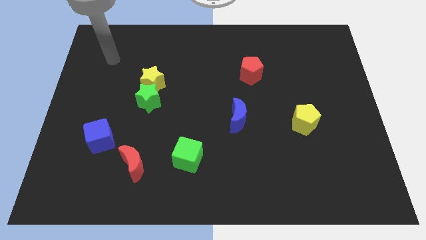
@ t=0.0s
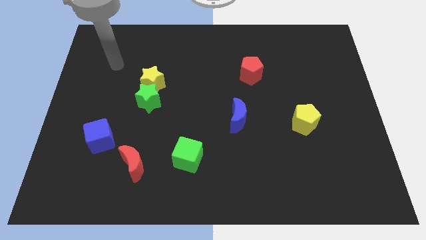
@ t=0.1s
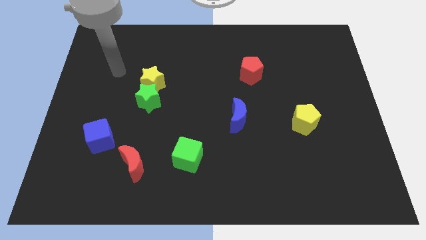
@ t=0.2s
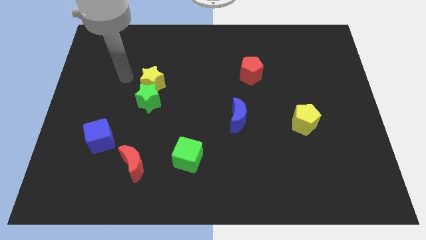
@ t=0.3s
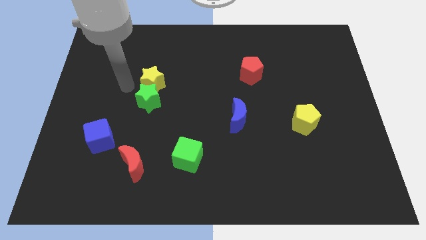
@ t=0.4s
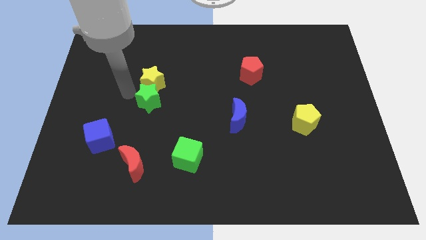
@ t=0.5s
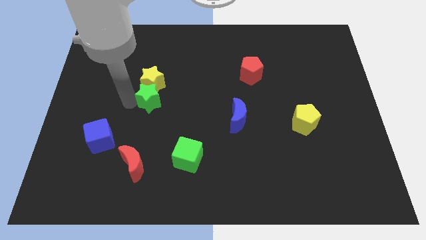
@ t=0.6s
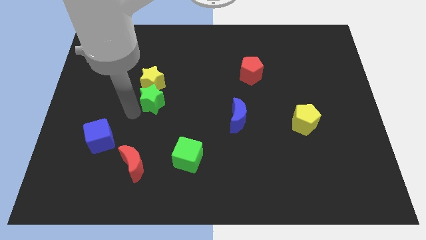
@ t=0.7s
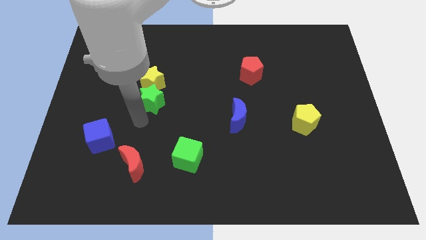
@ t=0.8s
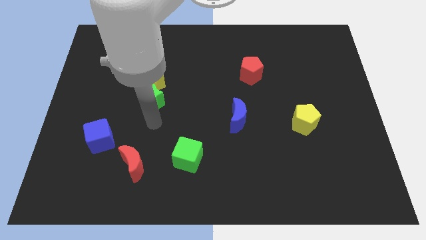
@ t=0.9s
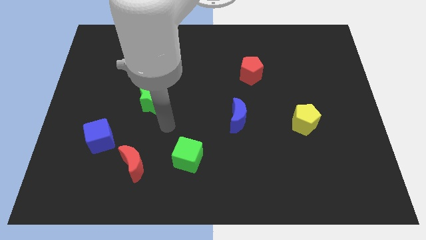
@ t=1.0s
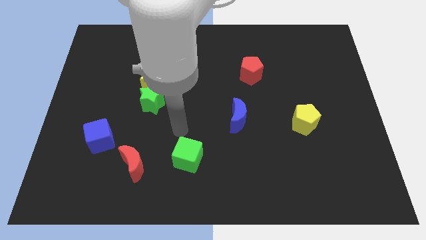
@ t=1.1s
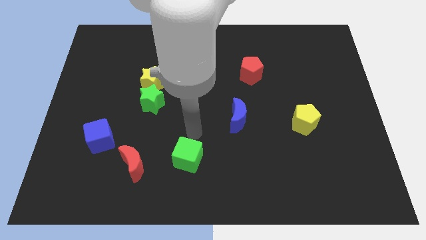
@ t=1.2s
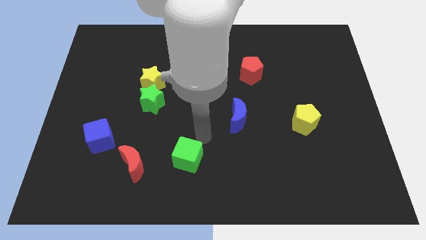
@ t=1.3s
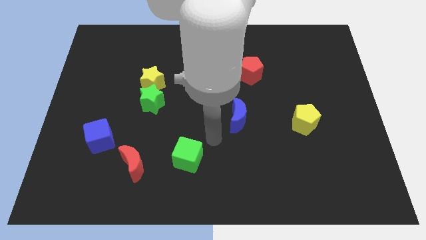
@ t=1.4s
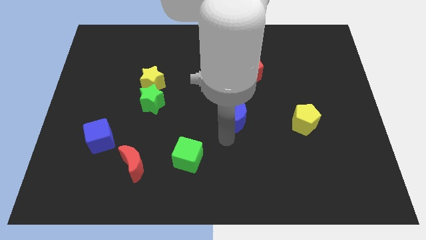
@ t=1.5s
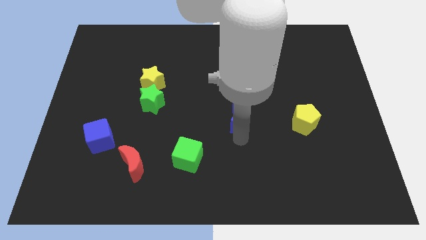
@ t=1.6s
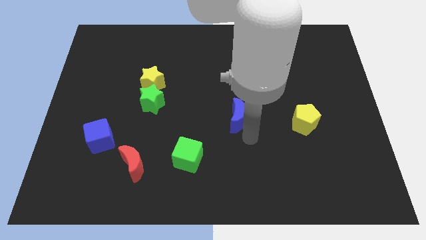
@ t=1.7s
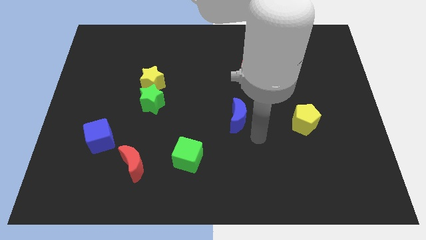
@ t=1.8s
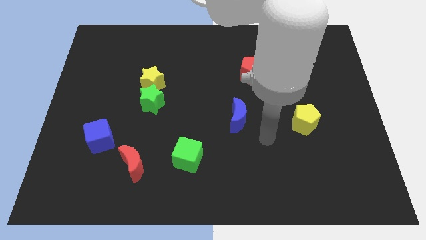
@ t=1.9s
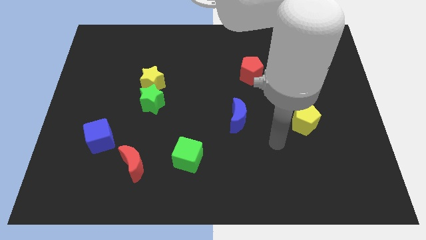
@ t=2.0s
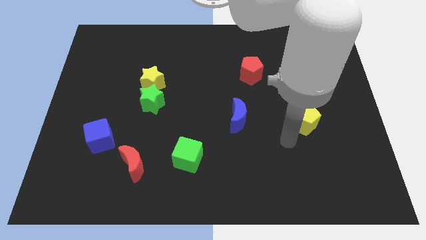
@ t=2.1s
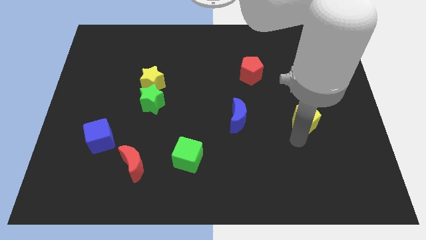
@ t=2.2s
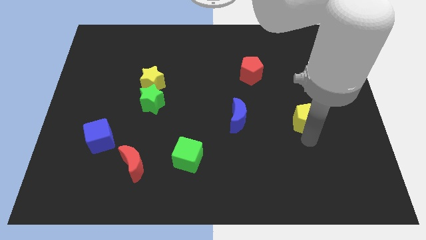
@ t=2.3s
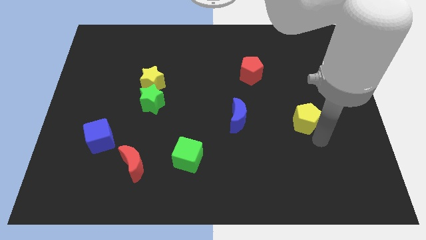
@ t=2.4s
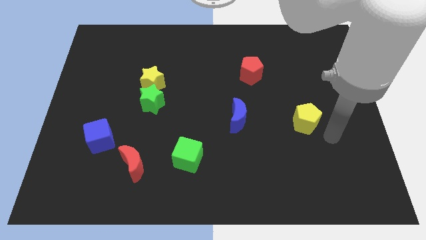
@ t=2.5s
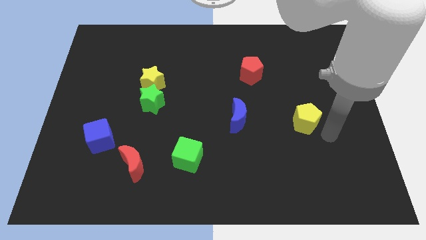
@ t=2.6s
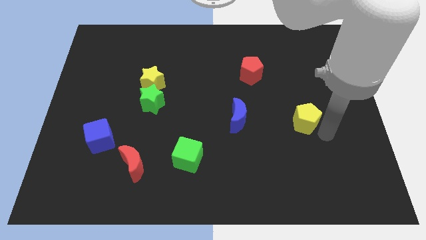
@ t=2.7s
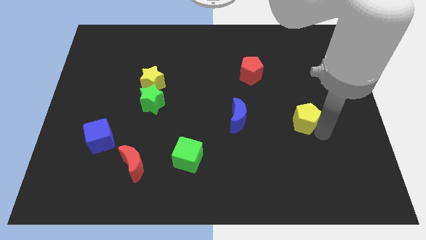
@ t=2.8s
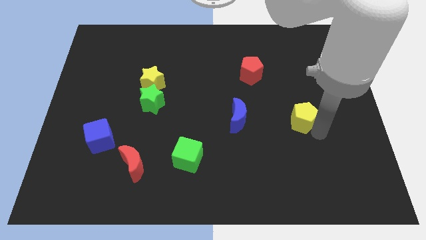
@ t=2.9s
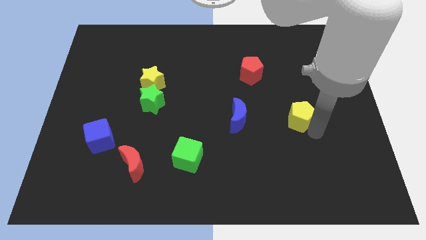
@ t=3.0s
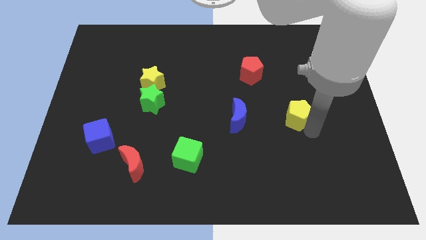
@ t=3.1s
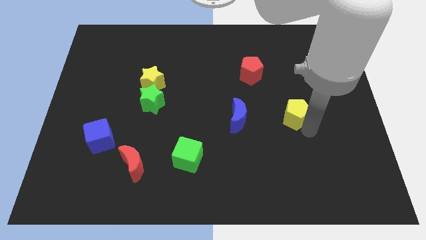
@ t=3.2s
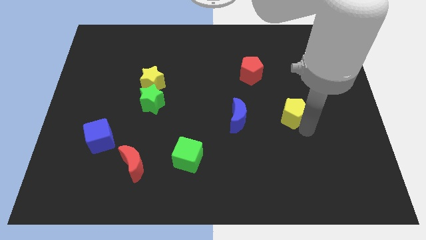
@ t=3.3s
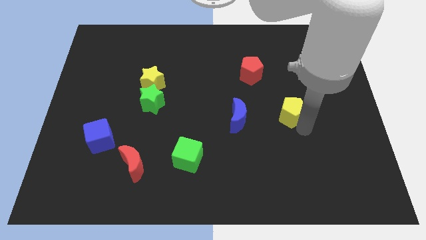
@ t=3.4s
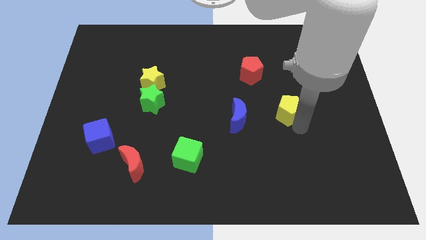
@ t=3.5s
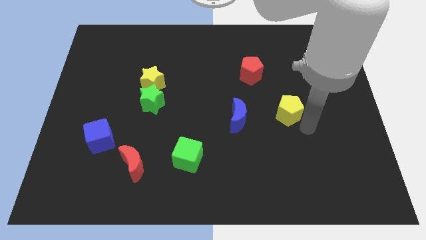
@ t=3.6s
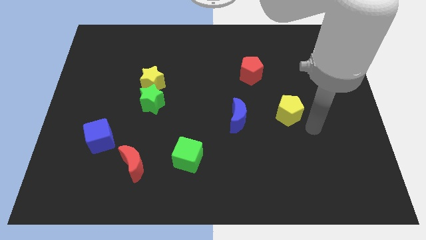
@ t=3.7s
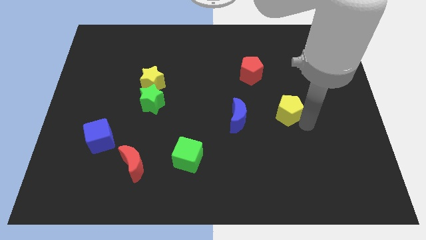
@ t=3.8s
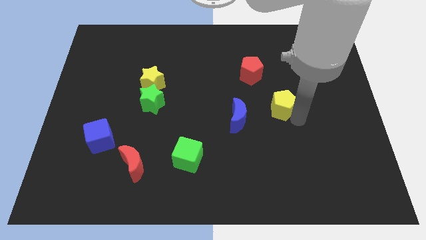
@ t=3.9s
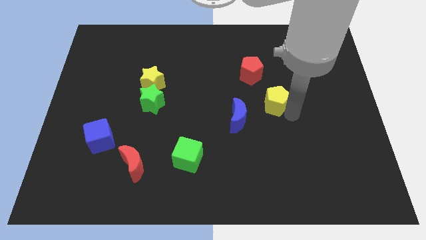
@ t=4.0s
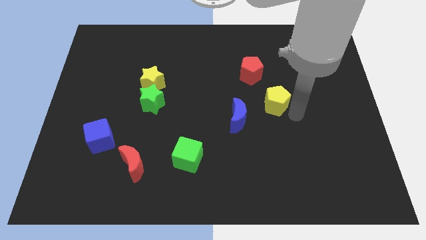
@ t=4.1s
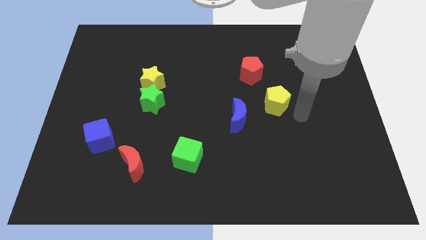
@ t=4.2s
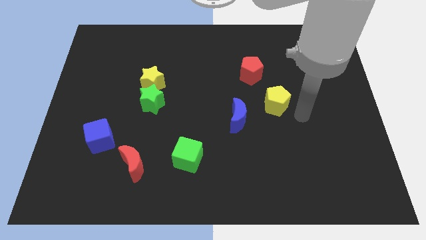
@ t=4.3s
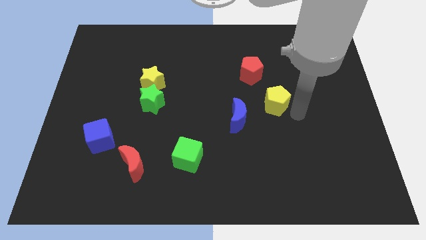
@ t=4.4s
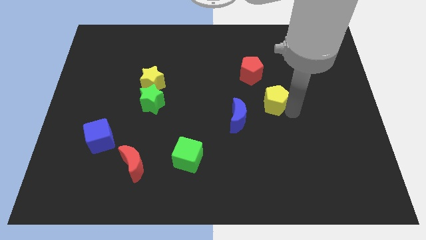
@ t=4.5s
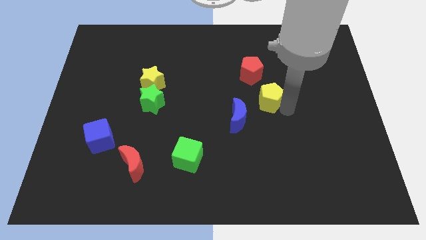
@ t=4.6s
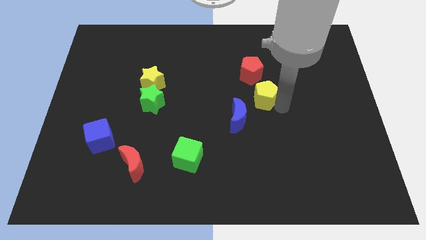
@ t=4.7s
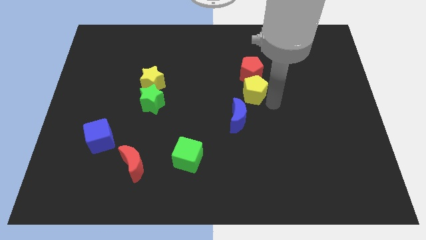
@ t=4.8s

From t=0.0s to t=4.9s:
put the yellow pentagon above the blue moon

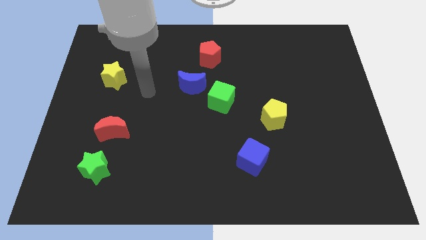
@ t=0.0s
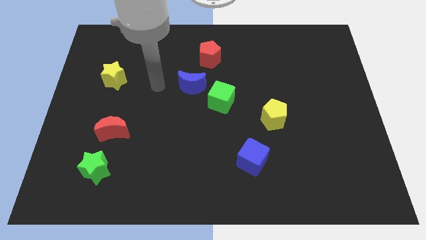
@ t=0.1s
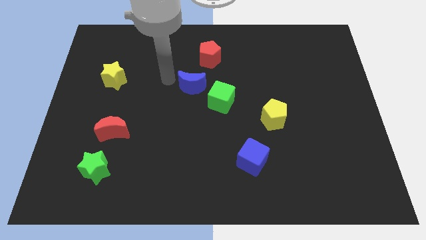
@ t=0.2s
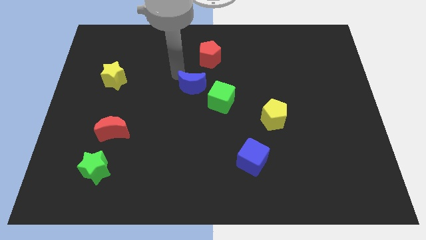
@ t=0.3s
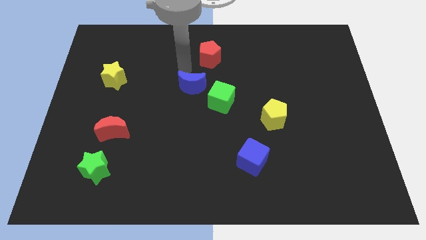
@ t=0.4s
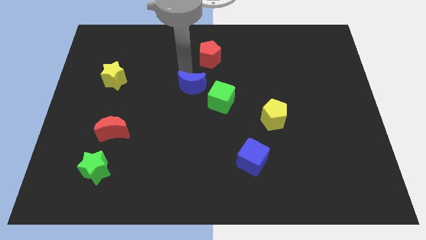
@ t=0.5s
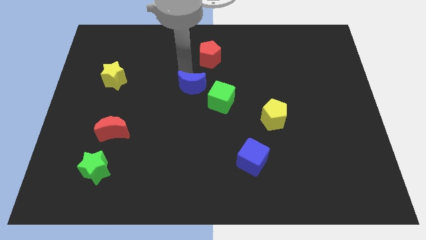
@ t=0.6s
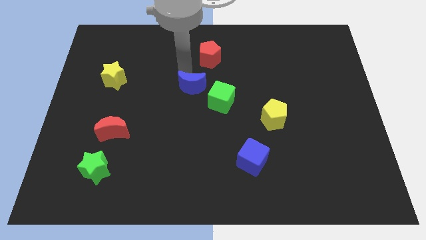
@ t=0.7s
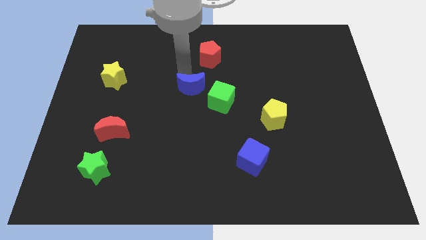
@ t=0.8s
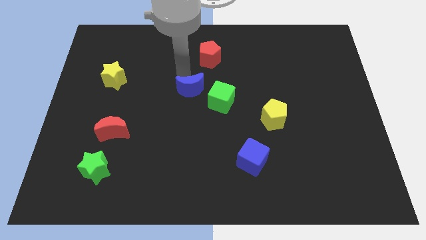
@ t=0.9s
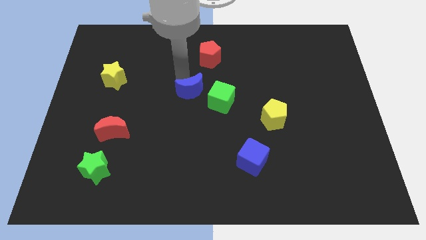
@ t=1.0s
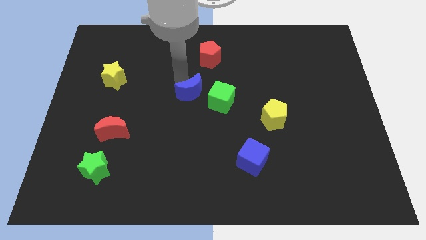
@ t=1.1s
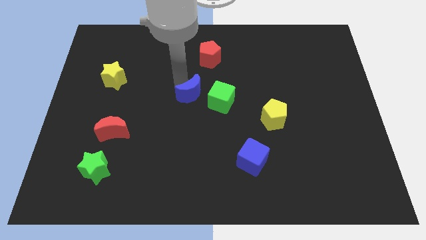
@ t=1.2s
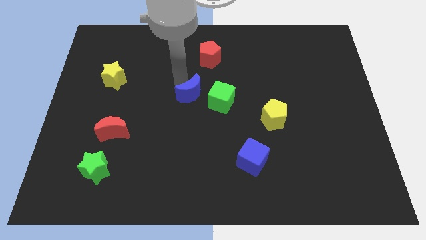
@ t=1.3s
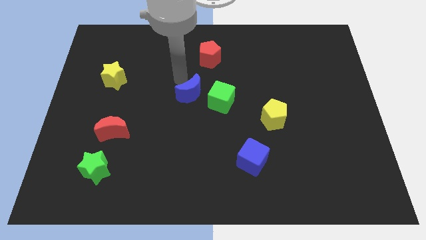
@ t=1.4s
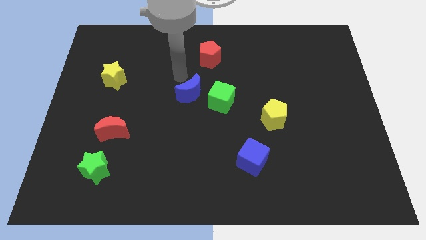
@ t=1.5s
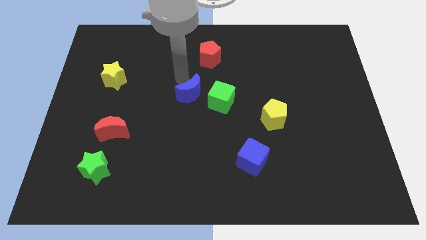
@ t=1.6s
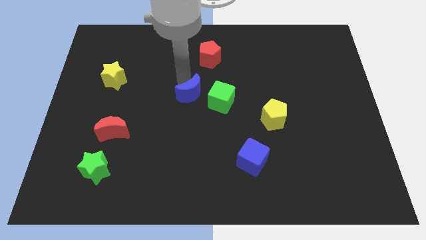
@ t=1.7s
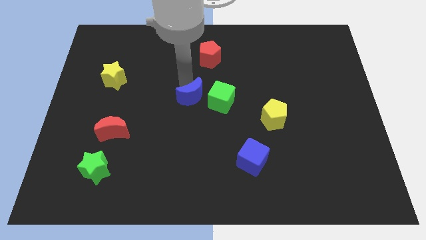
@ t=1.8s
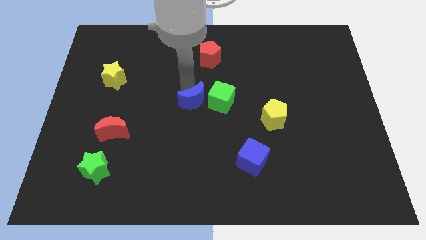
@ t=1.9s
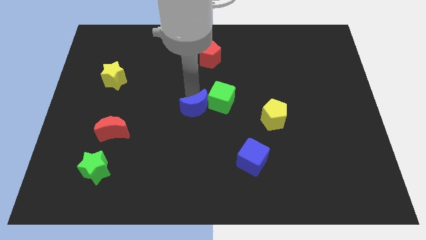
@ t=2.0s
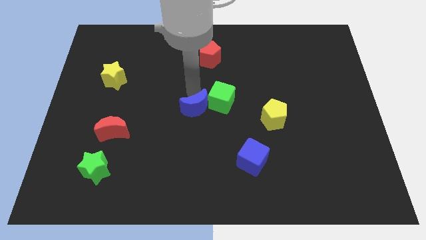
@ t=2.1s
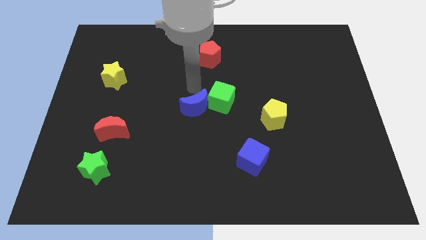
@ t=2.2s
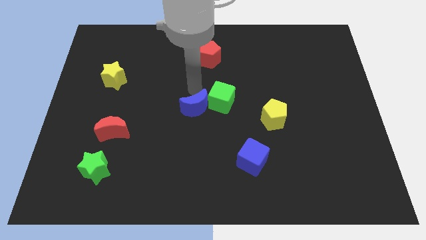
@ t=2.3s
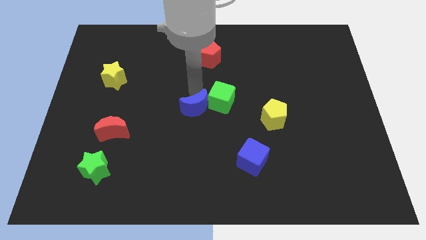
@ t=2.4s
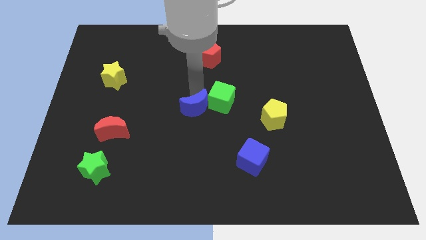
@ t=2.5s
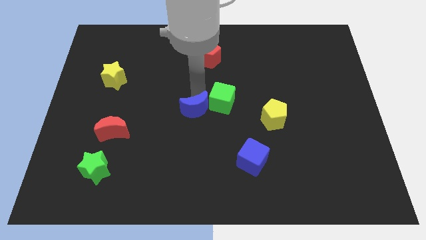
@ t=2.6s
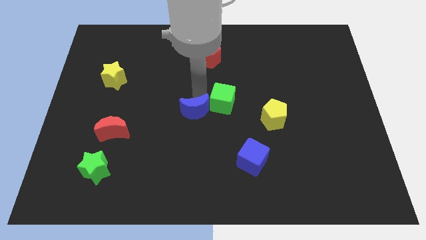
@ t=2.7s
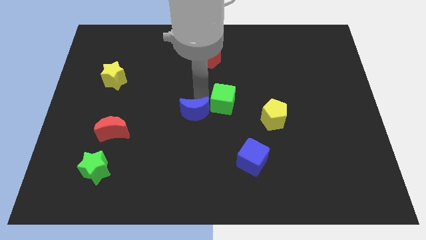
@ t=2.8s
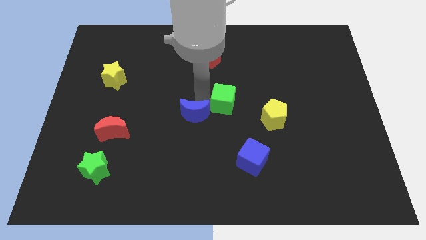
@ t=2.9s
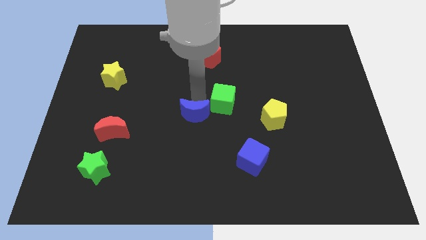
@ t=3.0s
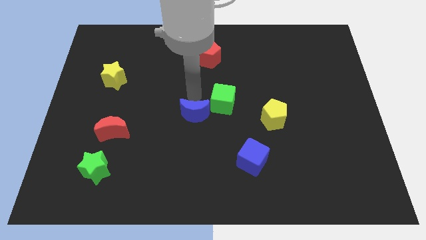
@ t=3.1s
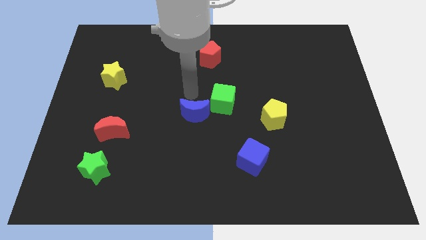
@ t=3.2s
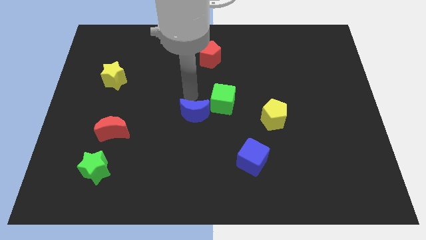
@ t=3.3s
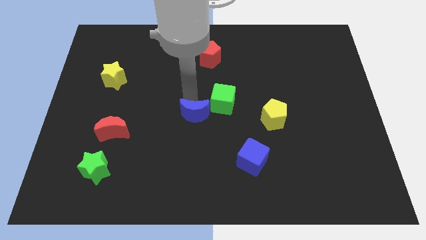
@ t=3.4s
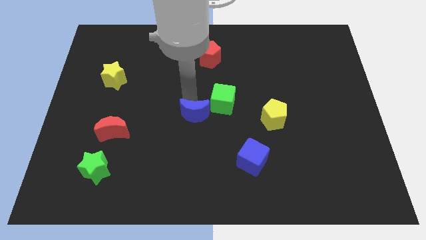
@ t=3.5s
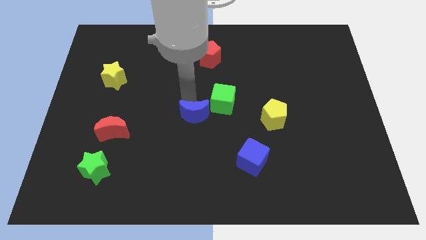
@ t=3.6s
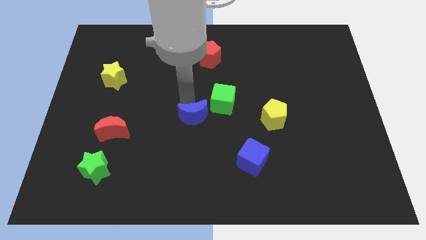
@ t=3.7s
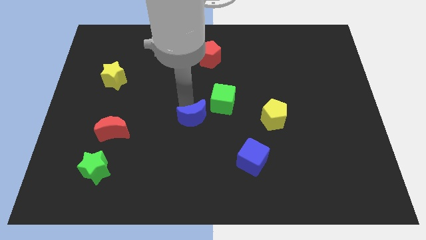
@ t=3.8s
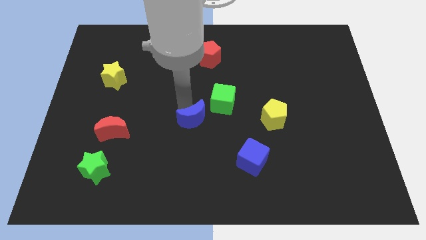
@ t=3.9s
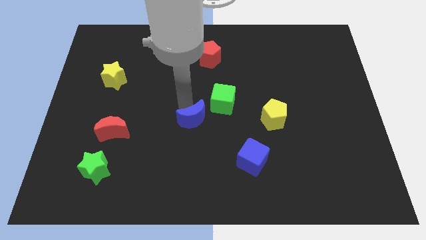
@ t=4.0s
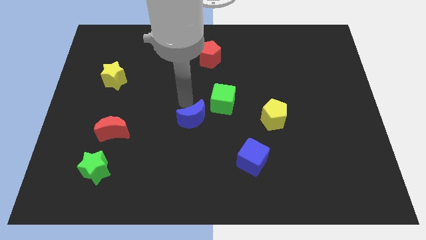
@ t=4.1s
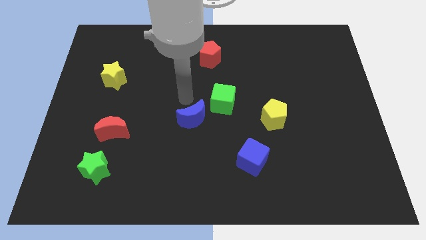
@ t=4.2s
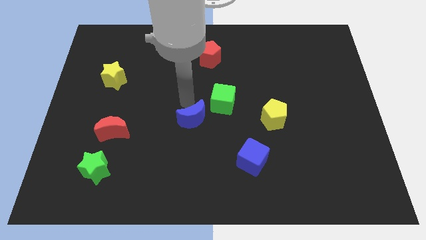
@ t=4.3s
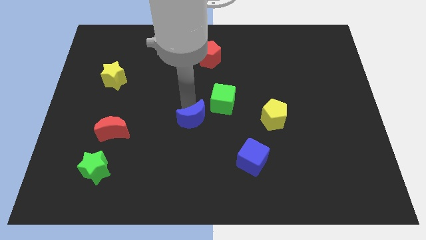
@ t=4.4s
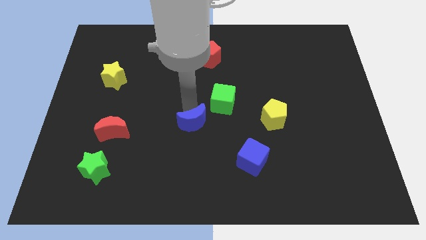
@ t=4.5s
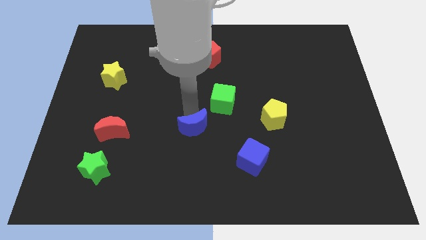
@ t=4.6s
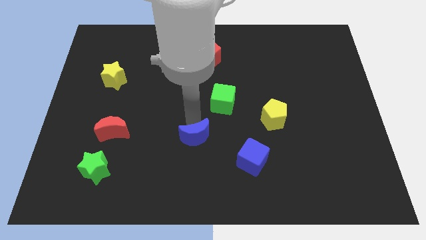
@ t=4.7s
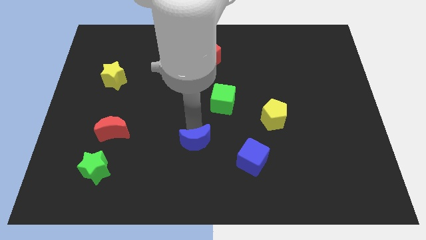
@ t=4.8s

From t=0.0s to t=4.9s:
put the blue moon just left of the blue cube
